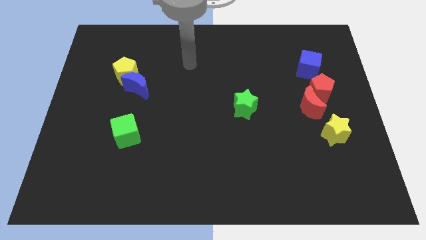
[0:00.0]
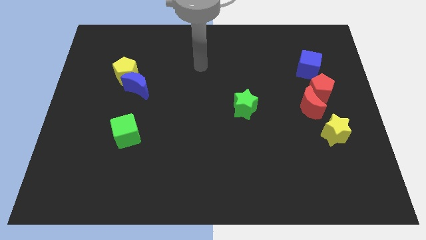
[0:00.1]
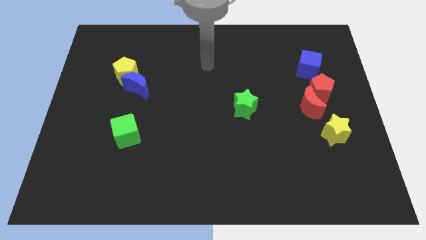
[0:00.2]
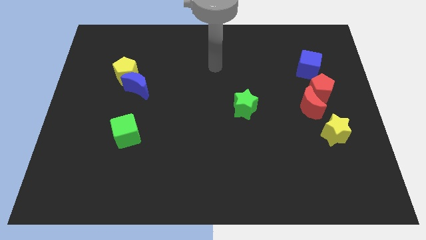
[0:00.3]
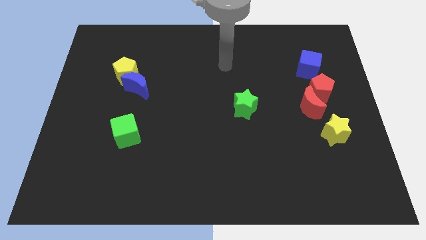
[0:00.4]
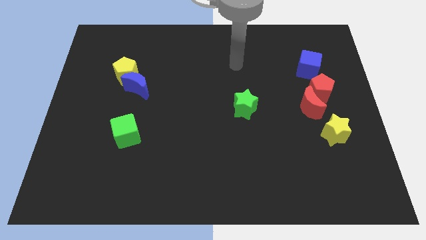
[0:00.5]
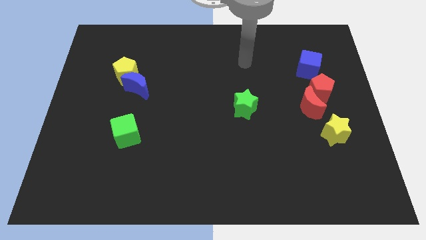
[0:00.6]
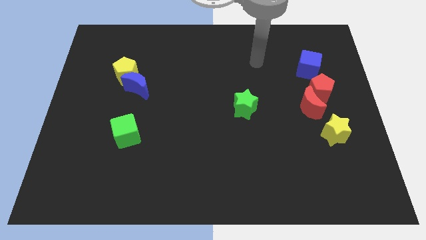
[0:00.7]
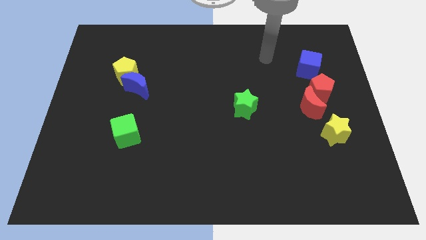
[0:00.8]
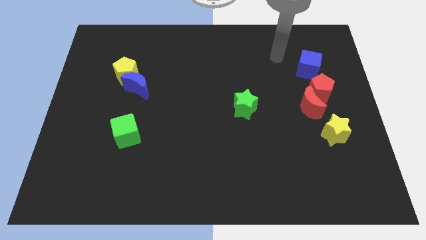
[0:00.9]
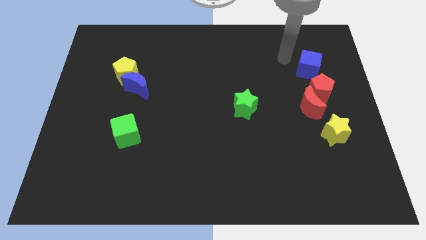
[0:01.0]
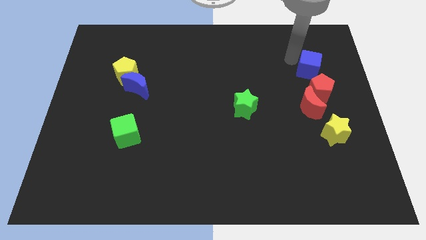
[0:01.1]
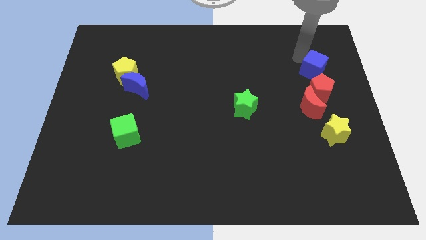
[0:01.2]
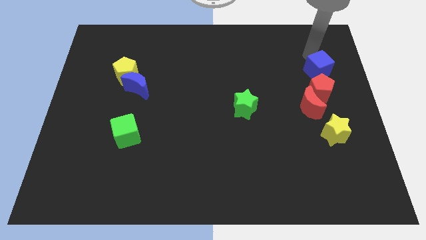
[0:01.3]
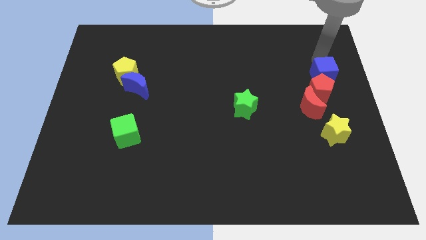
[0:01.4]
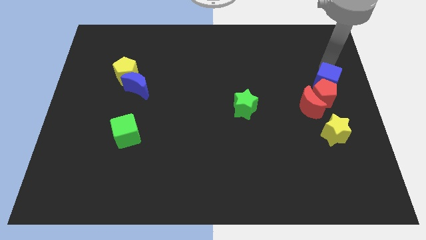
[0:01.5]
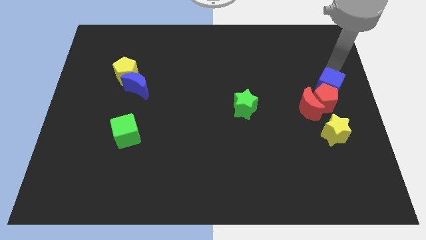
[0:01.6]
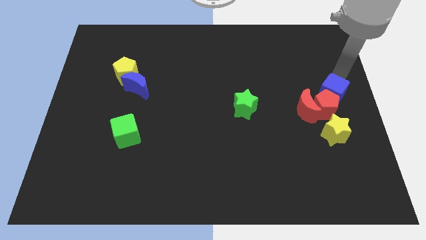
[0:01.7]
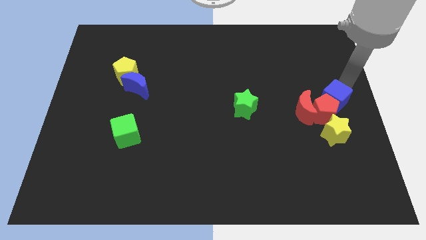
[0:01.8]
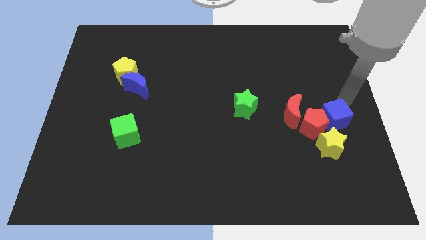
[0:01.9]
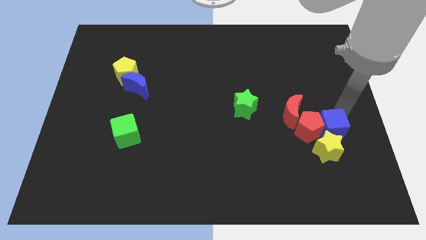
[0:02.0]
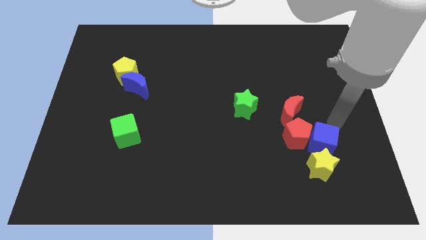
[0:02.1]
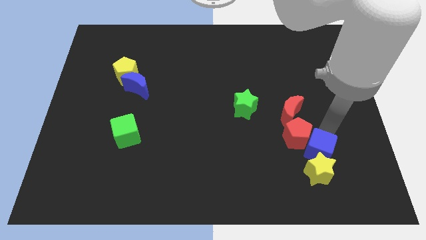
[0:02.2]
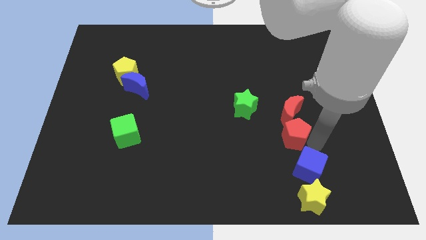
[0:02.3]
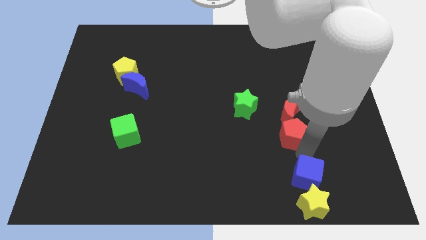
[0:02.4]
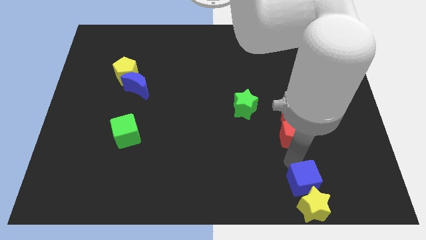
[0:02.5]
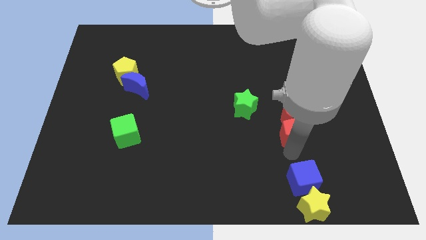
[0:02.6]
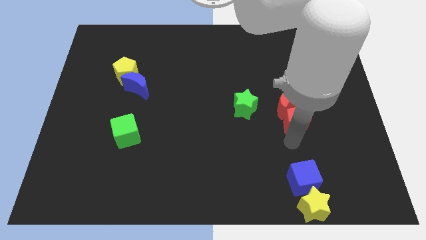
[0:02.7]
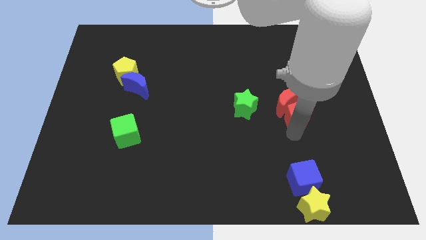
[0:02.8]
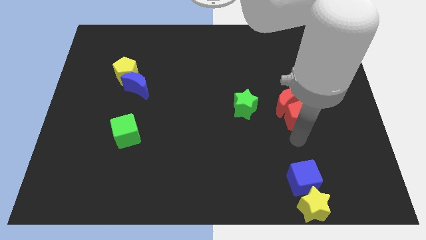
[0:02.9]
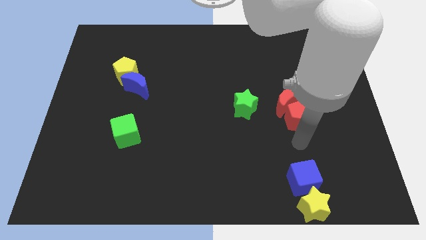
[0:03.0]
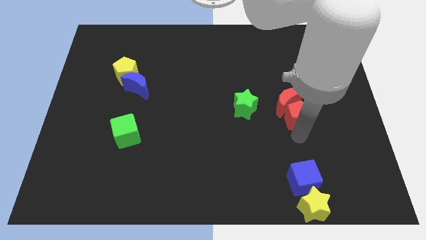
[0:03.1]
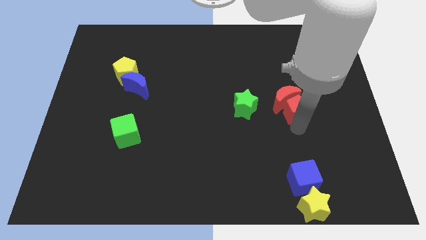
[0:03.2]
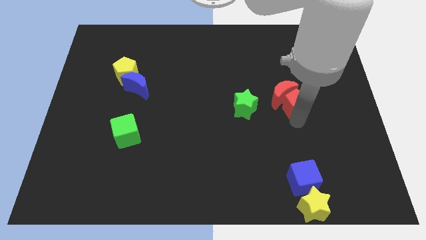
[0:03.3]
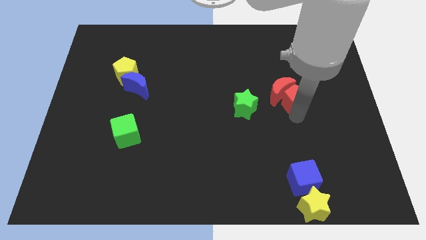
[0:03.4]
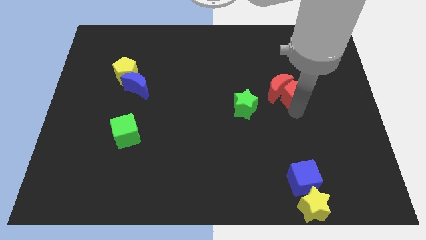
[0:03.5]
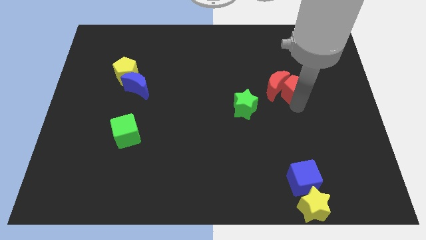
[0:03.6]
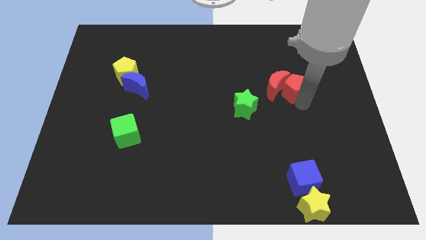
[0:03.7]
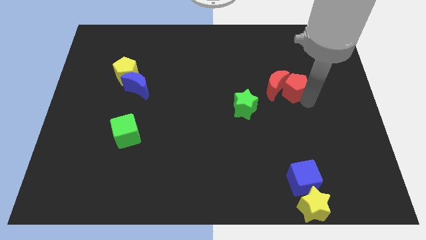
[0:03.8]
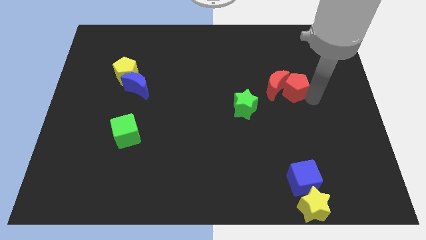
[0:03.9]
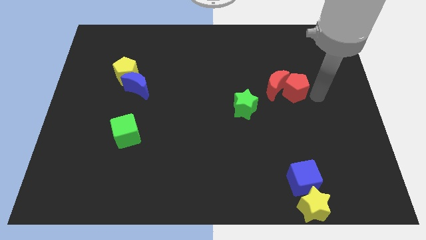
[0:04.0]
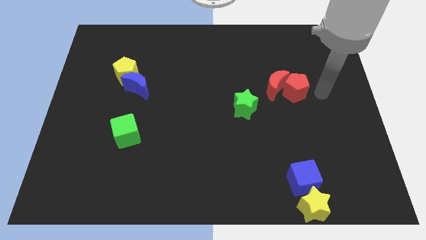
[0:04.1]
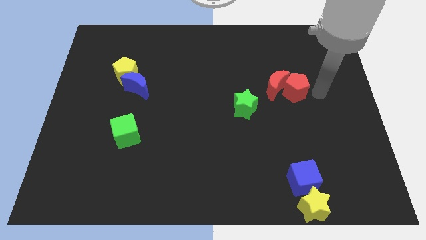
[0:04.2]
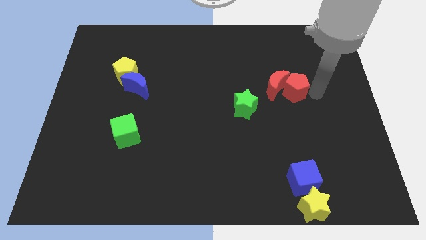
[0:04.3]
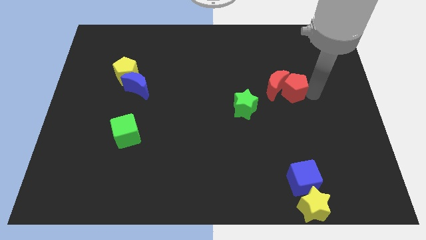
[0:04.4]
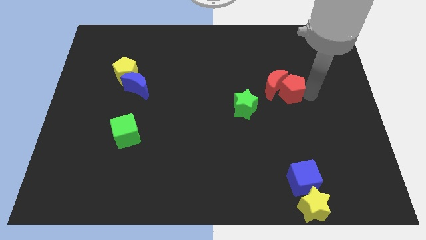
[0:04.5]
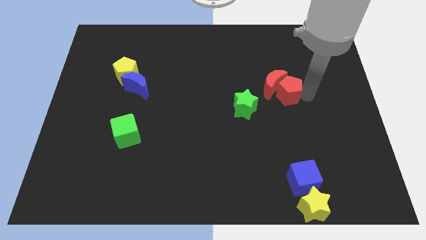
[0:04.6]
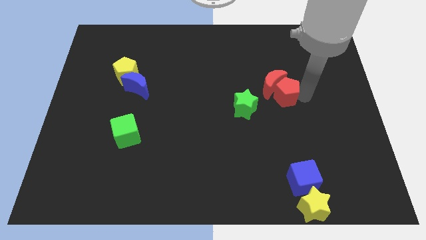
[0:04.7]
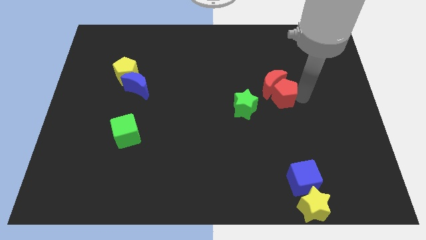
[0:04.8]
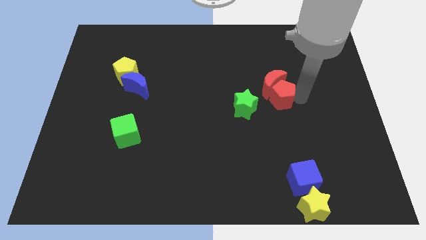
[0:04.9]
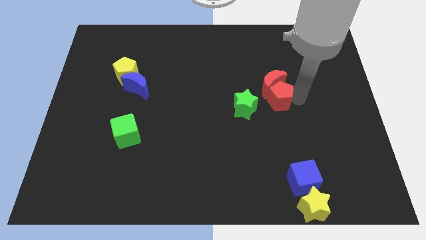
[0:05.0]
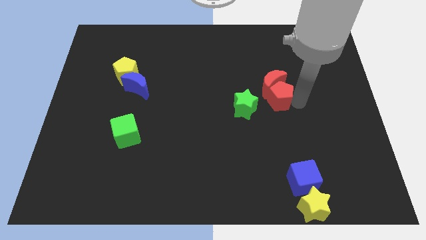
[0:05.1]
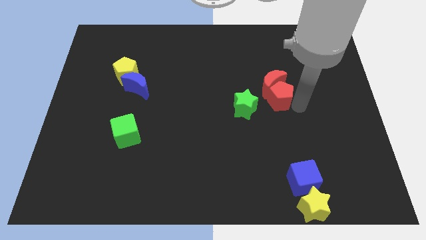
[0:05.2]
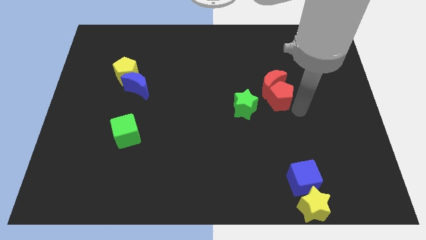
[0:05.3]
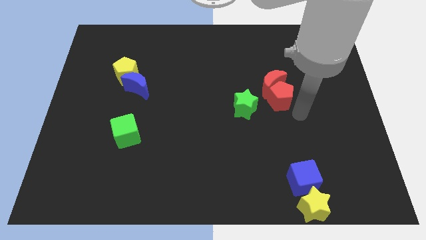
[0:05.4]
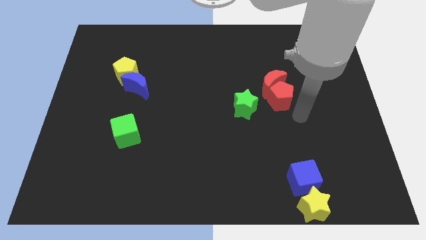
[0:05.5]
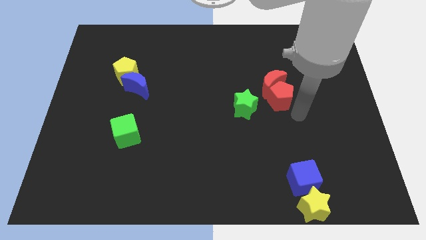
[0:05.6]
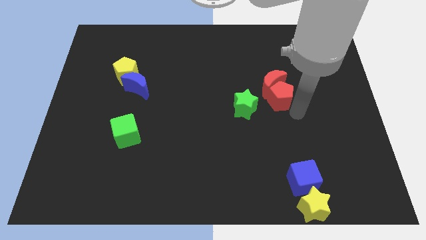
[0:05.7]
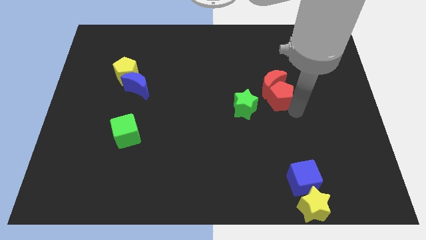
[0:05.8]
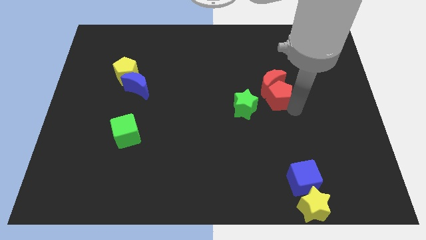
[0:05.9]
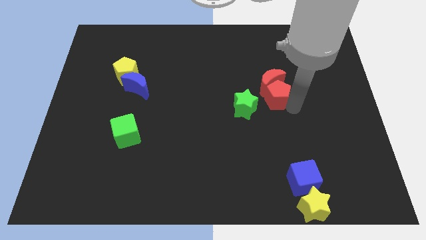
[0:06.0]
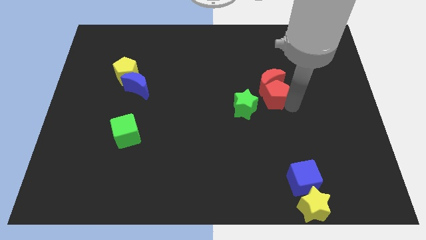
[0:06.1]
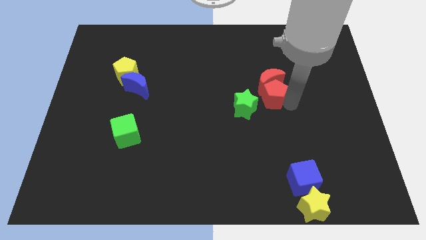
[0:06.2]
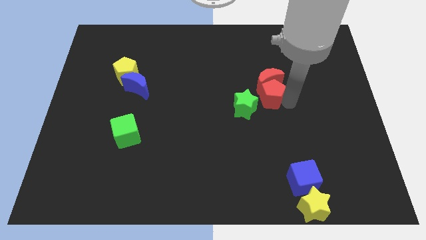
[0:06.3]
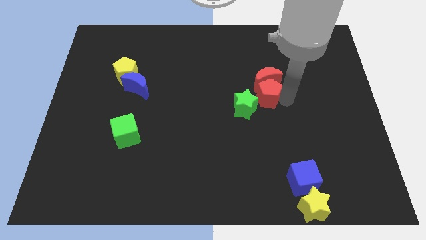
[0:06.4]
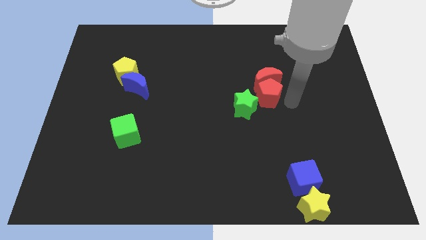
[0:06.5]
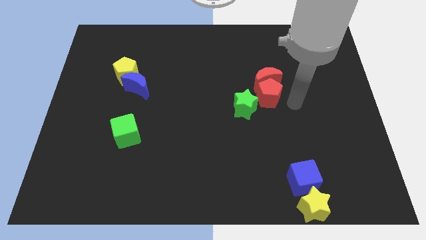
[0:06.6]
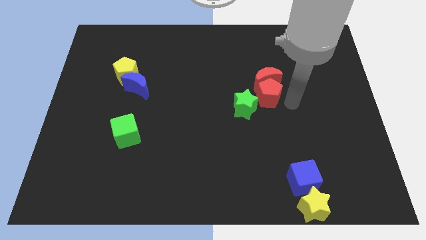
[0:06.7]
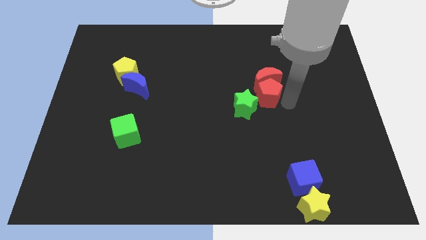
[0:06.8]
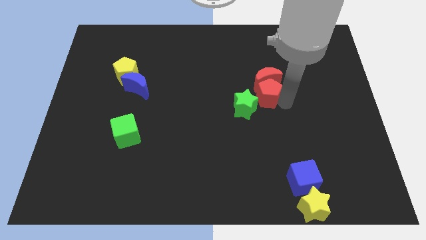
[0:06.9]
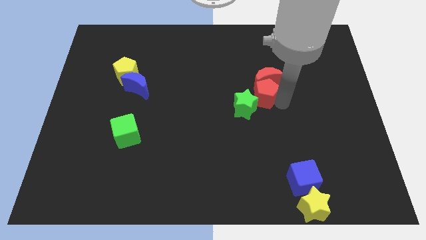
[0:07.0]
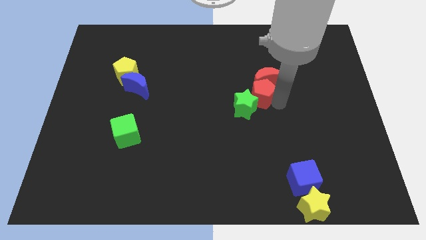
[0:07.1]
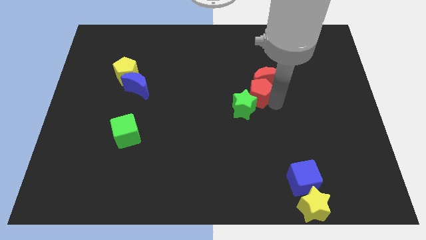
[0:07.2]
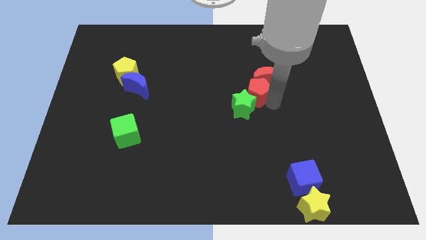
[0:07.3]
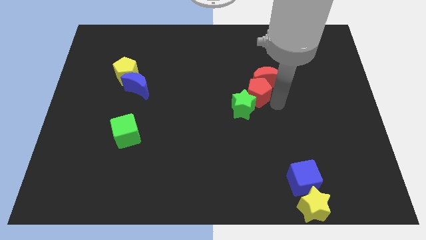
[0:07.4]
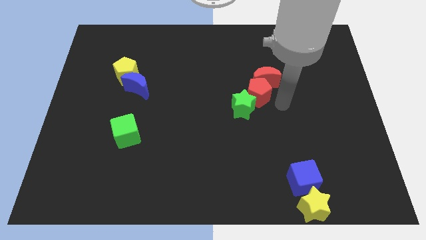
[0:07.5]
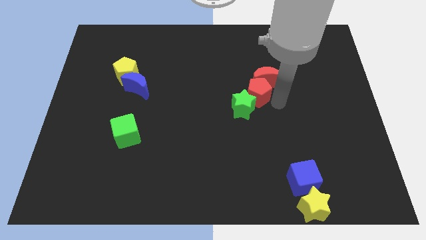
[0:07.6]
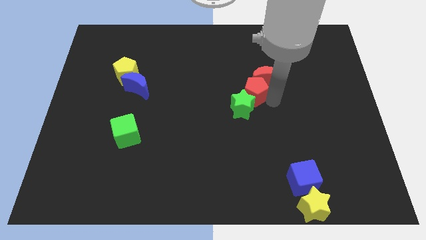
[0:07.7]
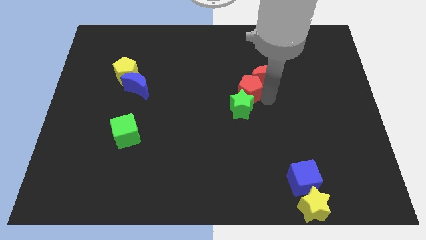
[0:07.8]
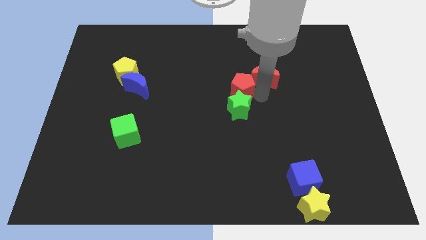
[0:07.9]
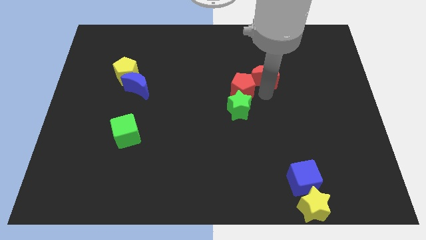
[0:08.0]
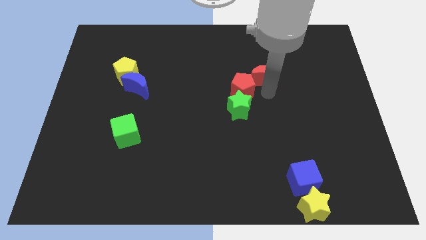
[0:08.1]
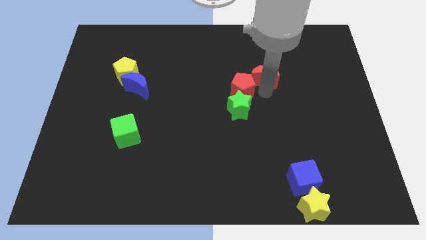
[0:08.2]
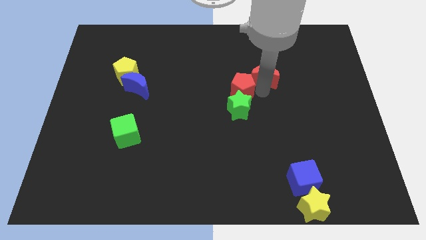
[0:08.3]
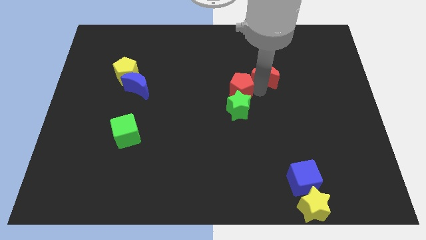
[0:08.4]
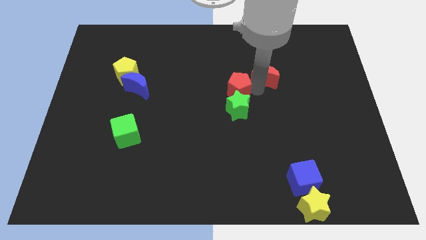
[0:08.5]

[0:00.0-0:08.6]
push the red pentagon to the left
